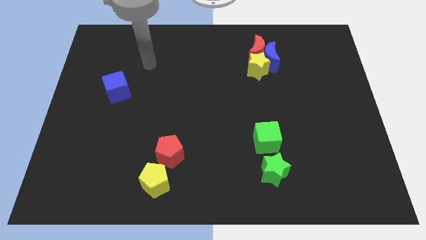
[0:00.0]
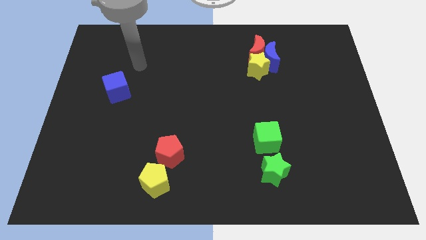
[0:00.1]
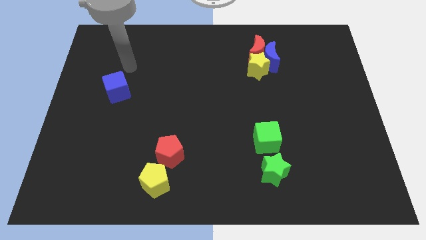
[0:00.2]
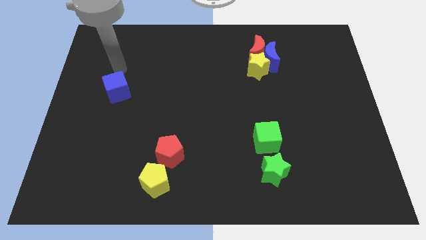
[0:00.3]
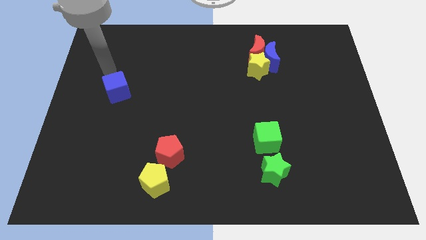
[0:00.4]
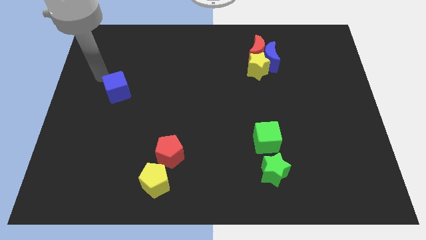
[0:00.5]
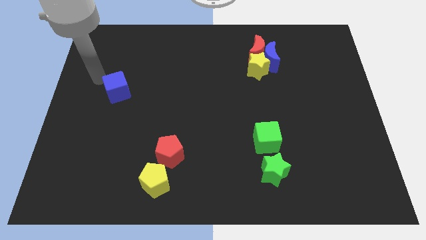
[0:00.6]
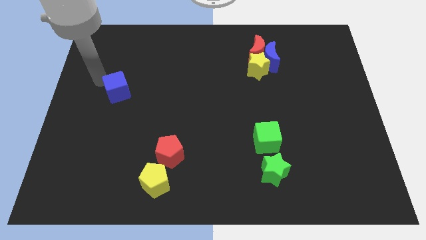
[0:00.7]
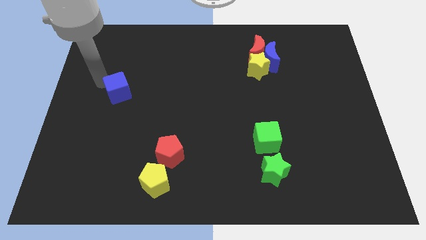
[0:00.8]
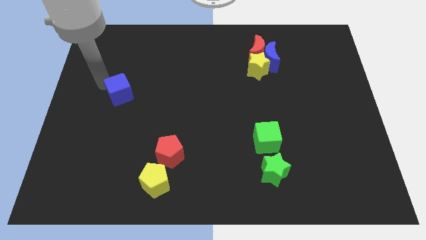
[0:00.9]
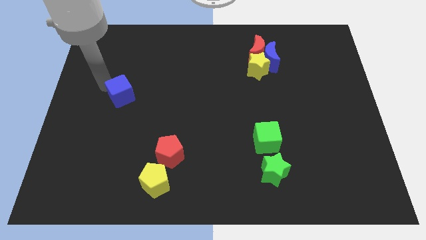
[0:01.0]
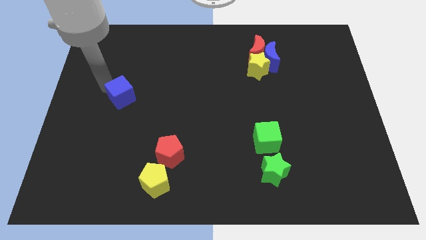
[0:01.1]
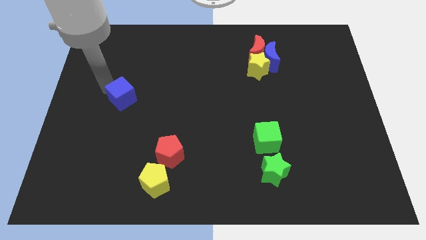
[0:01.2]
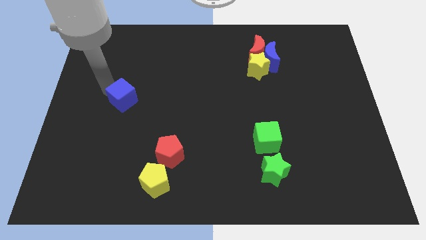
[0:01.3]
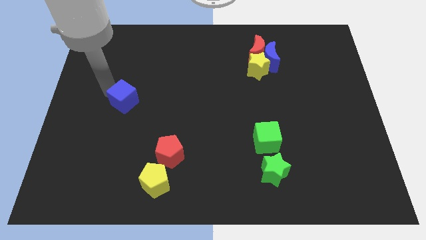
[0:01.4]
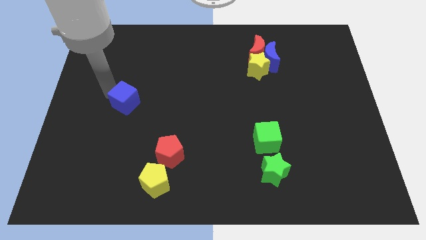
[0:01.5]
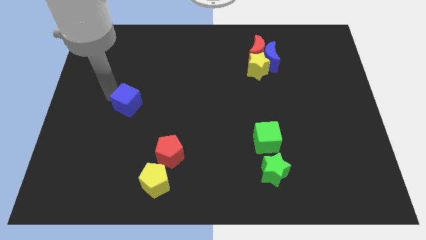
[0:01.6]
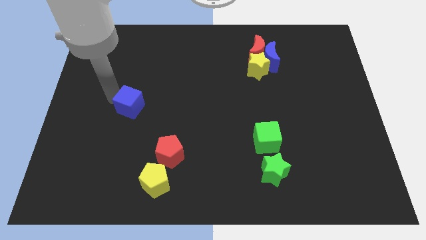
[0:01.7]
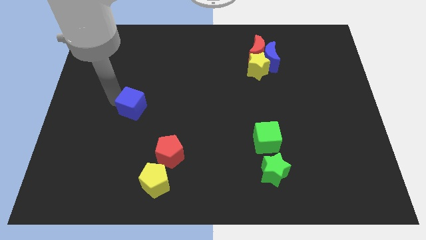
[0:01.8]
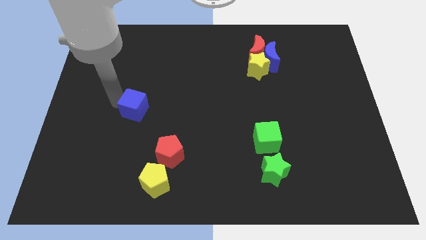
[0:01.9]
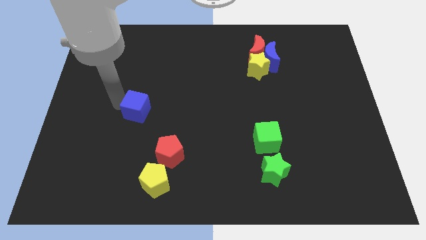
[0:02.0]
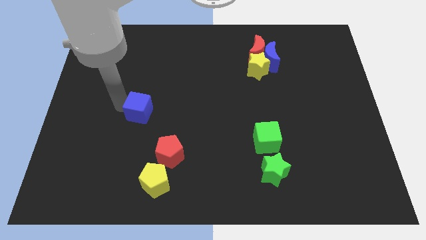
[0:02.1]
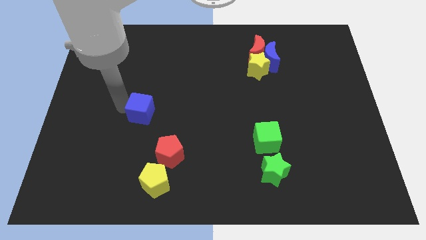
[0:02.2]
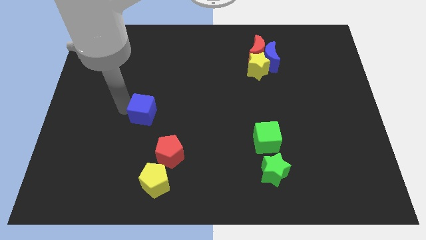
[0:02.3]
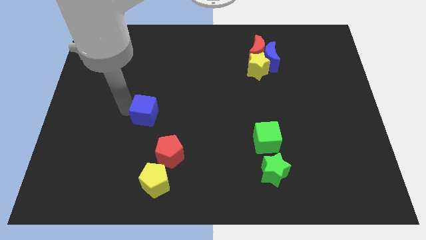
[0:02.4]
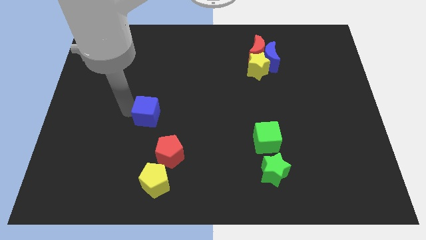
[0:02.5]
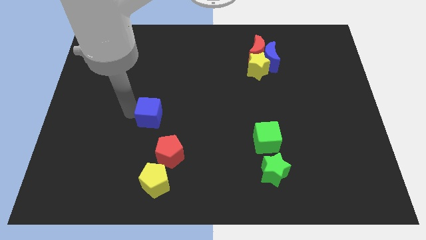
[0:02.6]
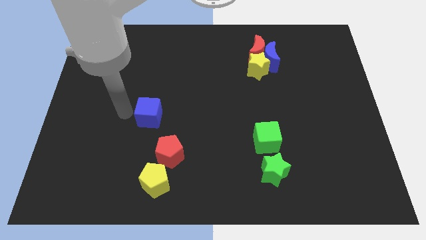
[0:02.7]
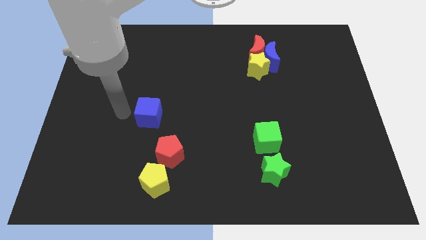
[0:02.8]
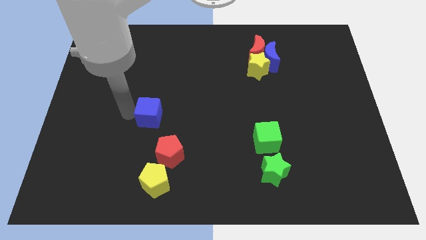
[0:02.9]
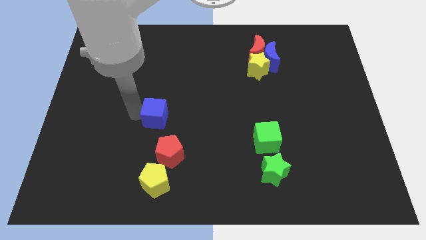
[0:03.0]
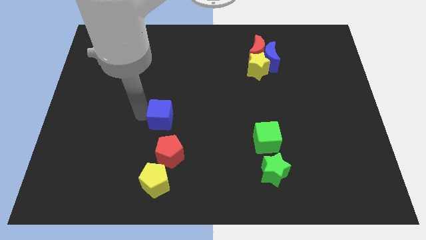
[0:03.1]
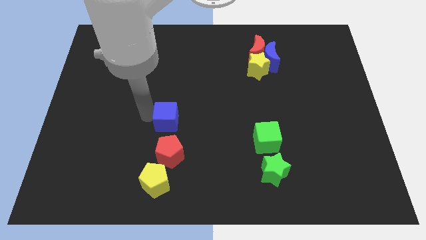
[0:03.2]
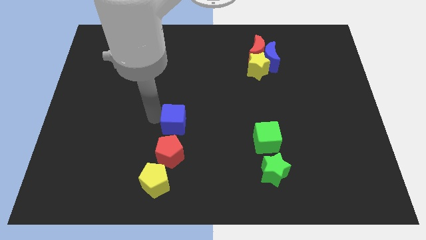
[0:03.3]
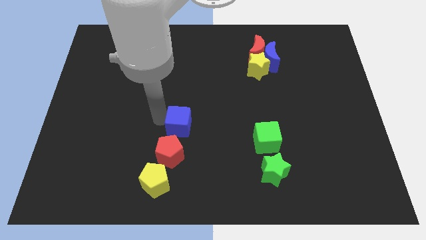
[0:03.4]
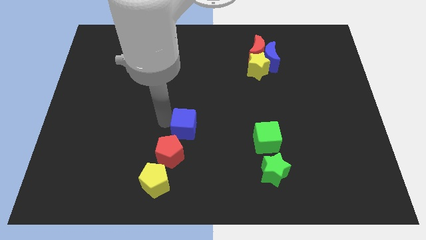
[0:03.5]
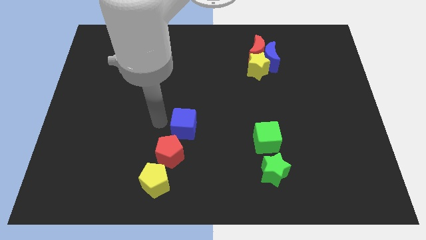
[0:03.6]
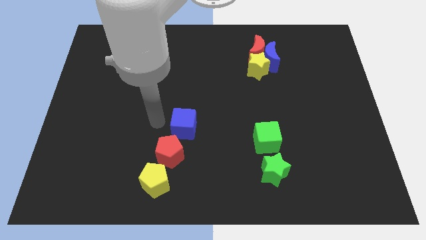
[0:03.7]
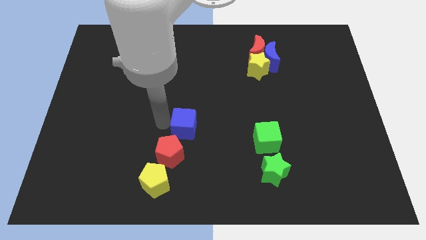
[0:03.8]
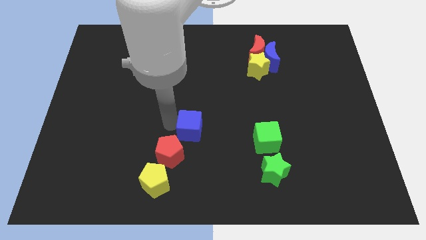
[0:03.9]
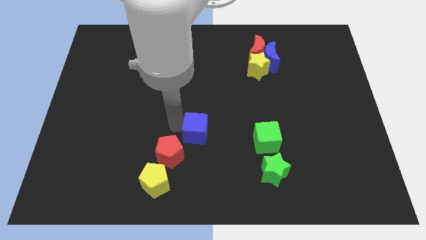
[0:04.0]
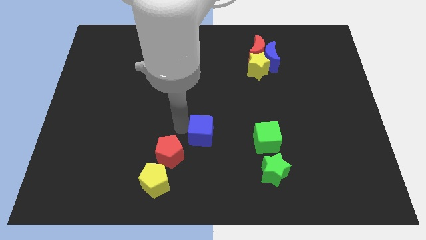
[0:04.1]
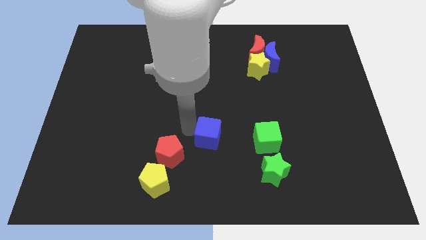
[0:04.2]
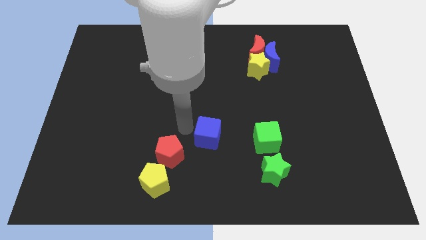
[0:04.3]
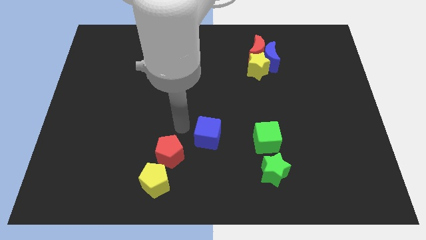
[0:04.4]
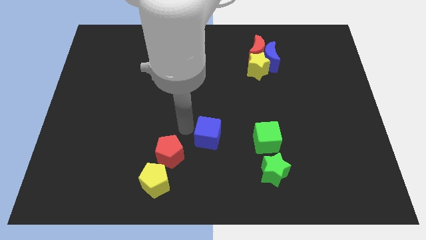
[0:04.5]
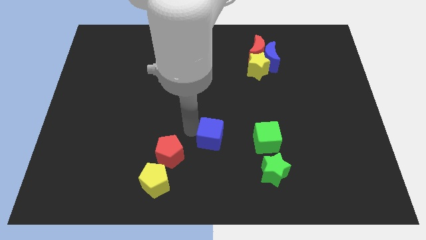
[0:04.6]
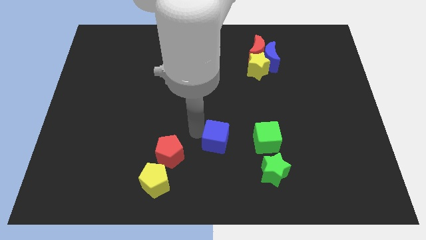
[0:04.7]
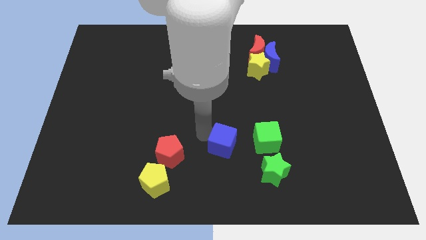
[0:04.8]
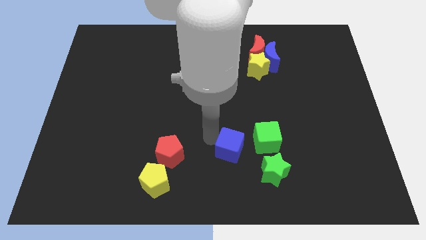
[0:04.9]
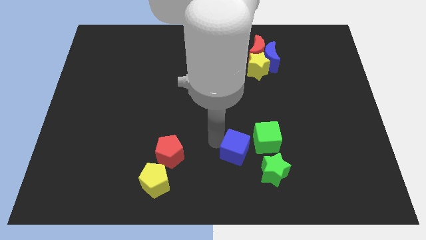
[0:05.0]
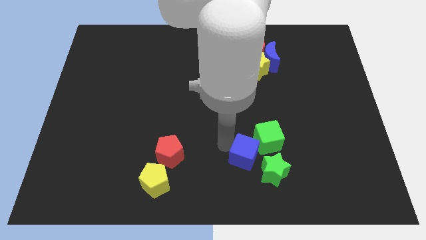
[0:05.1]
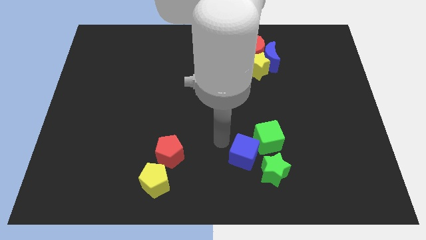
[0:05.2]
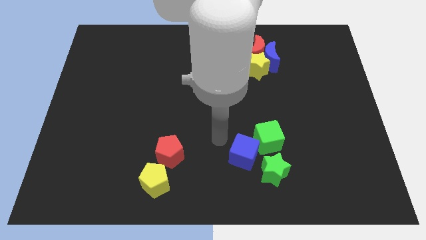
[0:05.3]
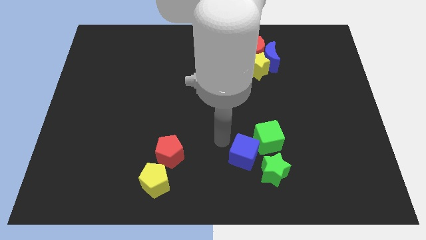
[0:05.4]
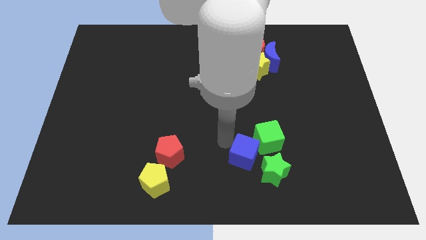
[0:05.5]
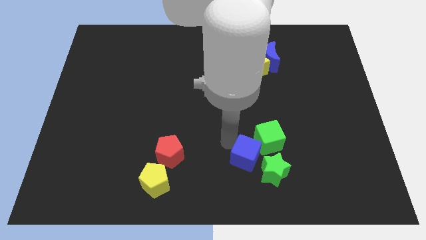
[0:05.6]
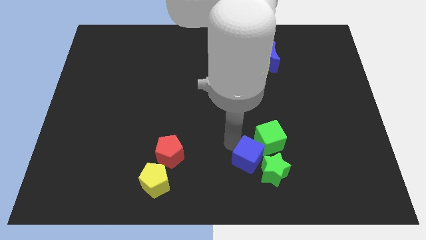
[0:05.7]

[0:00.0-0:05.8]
push the blue cube towards the green star
